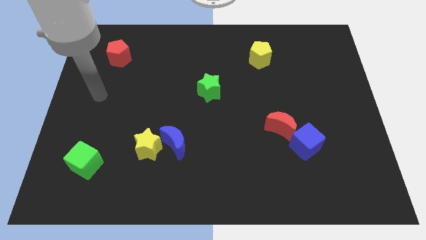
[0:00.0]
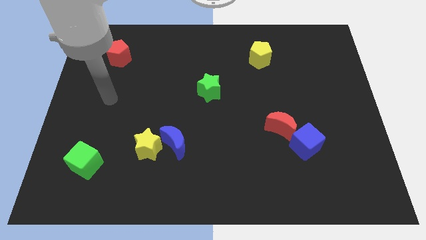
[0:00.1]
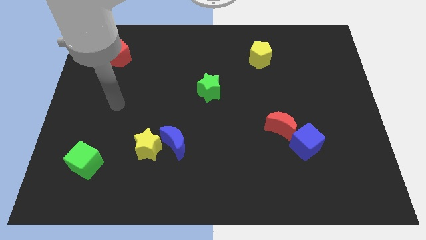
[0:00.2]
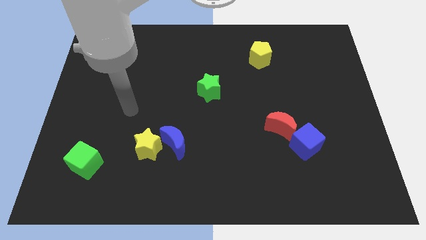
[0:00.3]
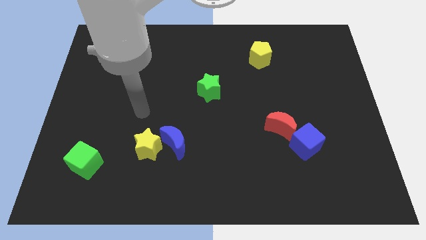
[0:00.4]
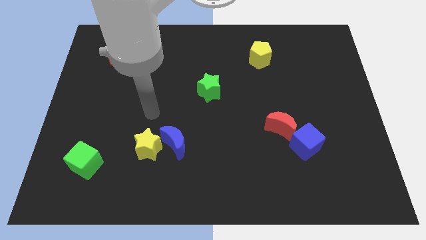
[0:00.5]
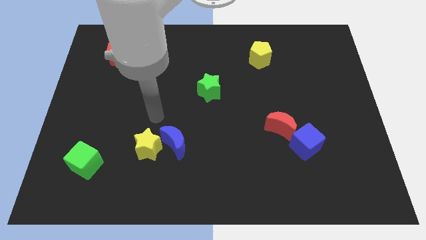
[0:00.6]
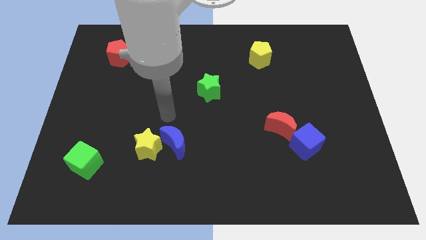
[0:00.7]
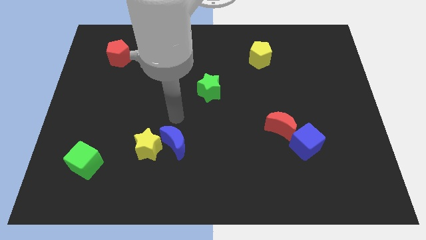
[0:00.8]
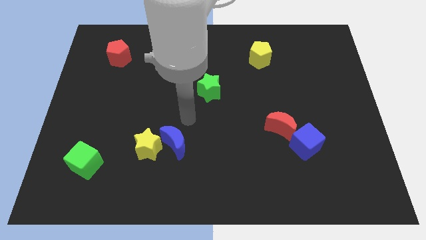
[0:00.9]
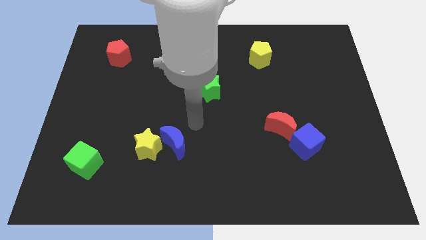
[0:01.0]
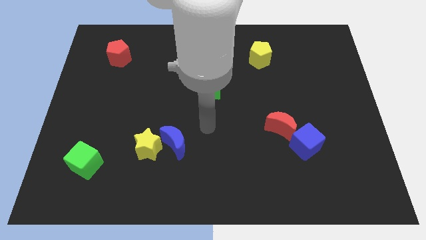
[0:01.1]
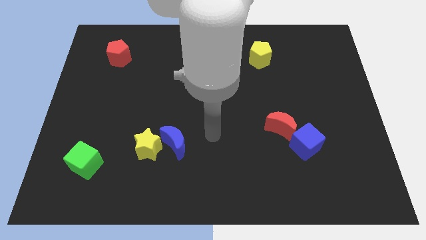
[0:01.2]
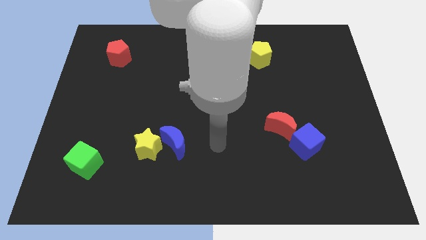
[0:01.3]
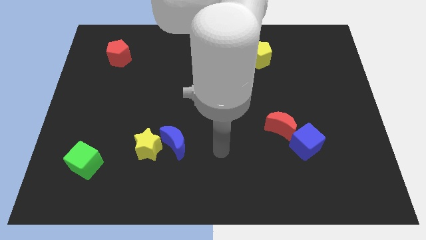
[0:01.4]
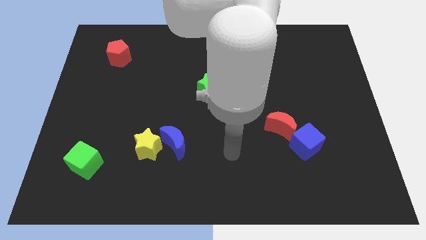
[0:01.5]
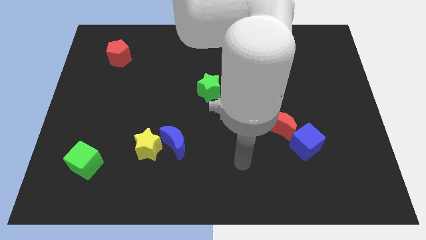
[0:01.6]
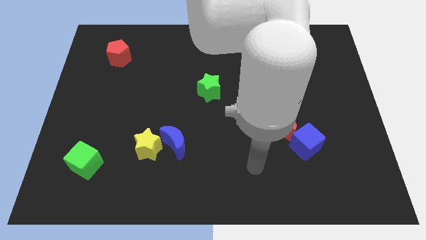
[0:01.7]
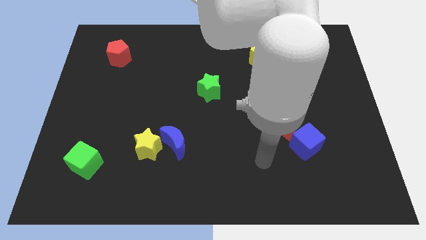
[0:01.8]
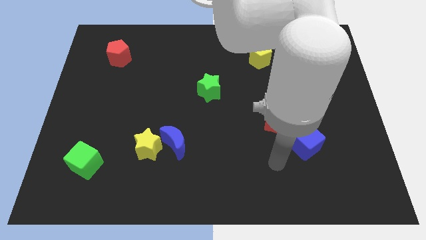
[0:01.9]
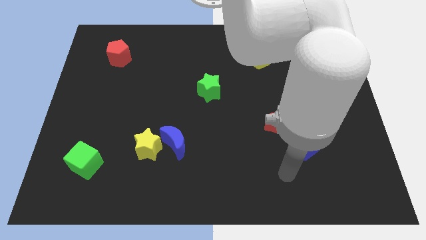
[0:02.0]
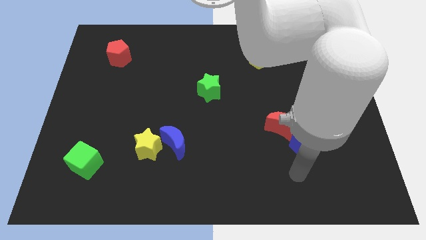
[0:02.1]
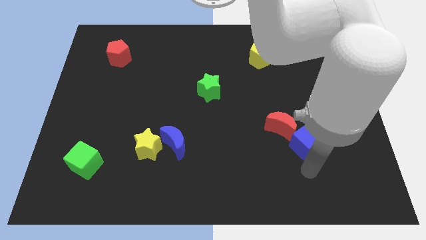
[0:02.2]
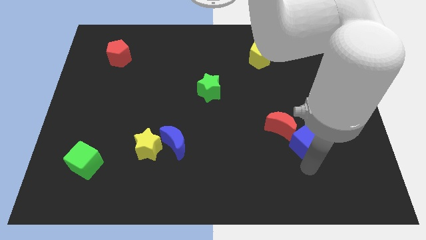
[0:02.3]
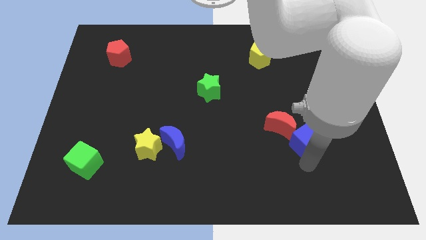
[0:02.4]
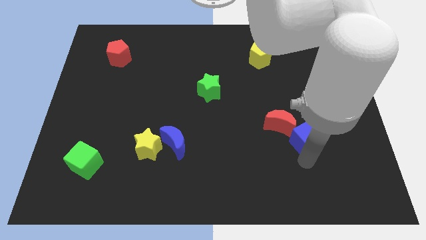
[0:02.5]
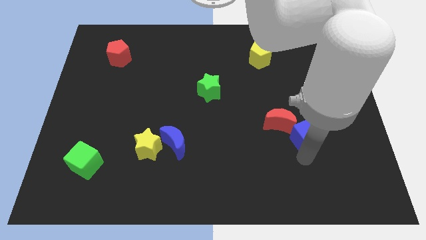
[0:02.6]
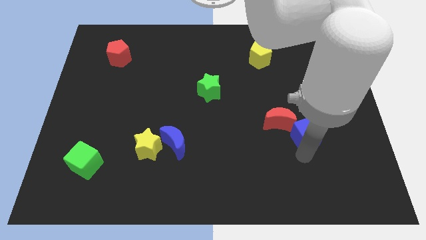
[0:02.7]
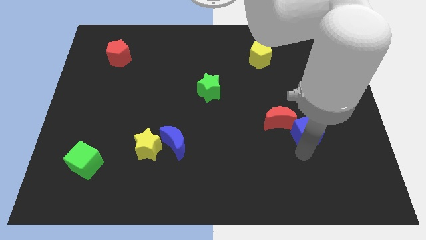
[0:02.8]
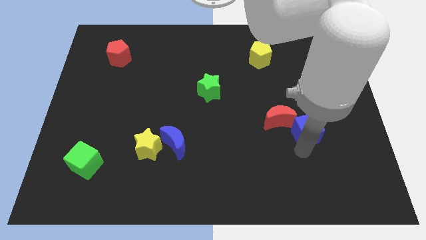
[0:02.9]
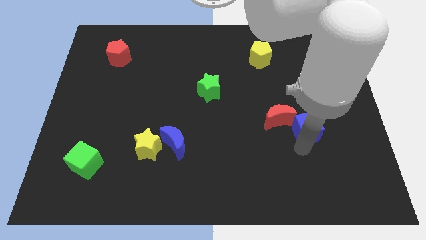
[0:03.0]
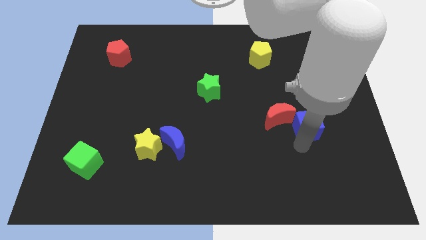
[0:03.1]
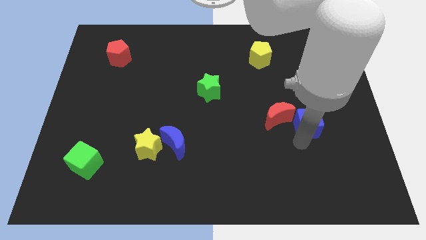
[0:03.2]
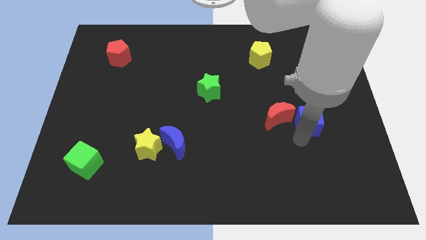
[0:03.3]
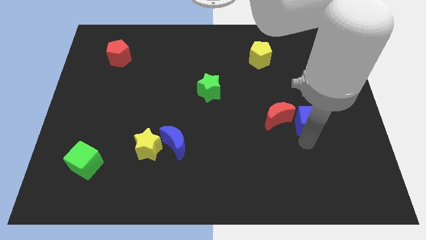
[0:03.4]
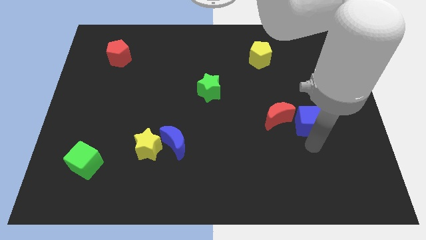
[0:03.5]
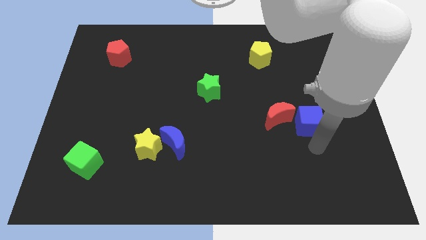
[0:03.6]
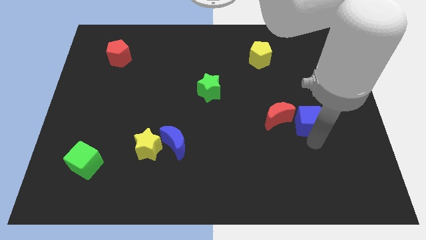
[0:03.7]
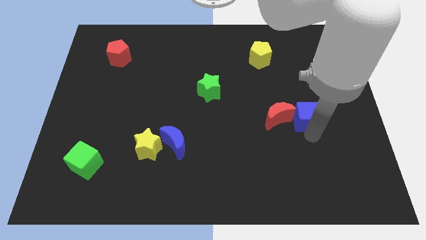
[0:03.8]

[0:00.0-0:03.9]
move the blue cube up somewhat

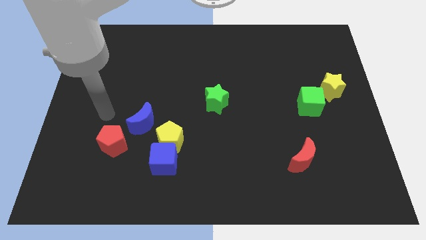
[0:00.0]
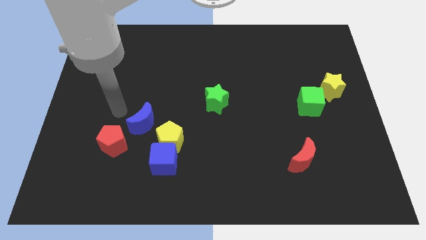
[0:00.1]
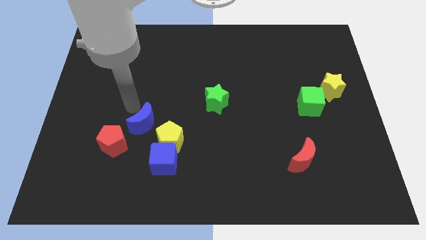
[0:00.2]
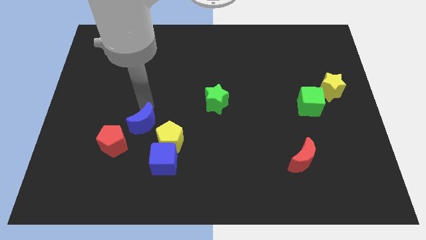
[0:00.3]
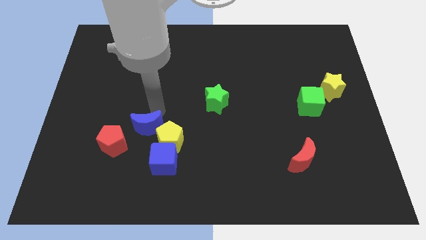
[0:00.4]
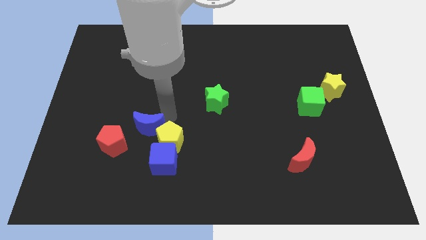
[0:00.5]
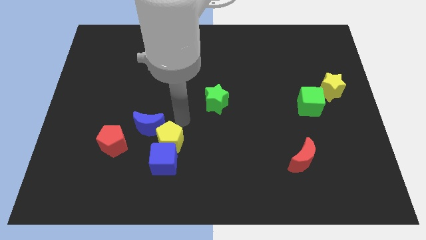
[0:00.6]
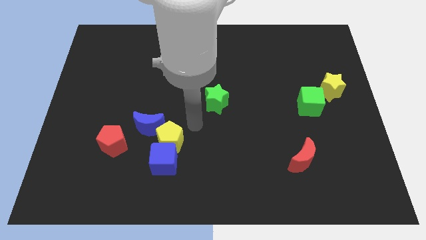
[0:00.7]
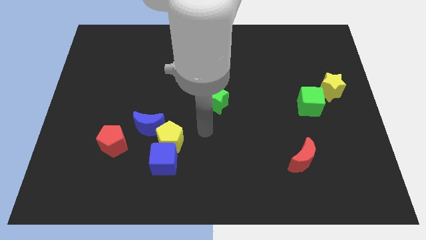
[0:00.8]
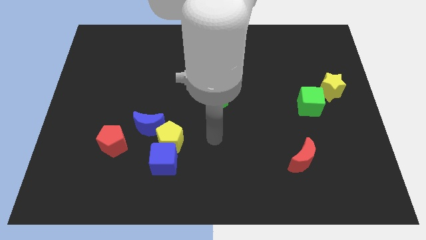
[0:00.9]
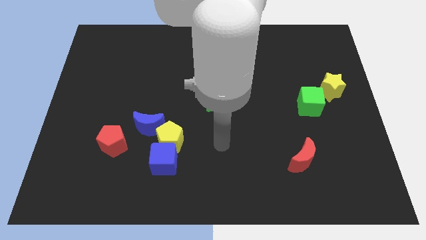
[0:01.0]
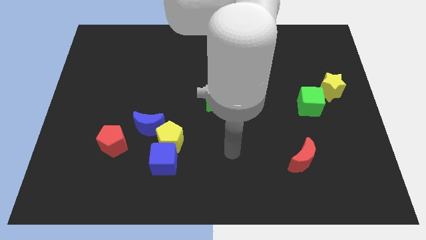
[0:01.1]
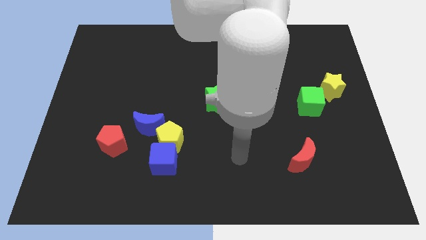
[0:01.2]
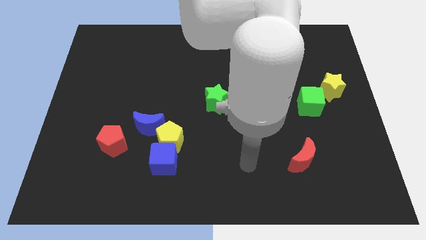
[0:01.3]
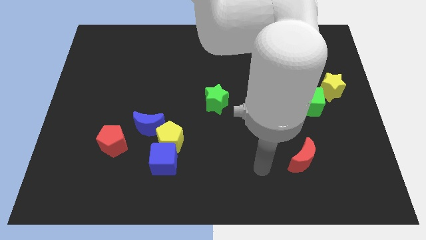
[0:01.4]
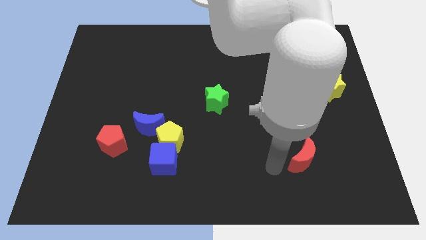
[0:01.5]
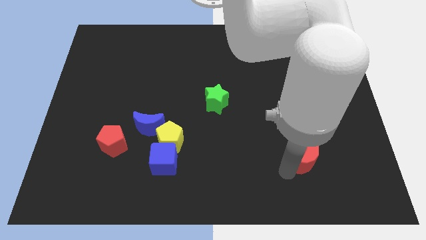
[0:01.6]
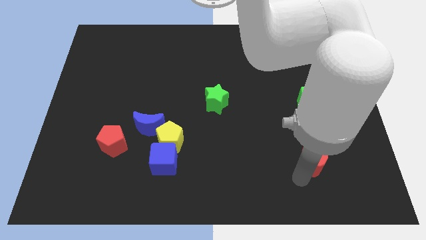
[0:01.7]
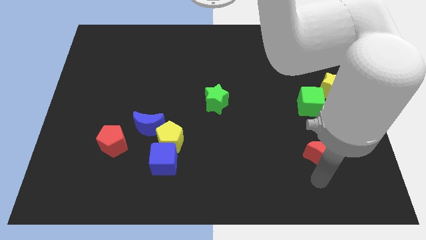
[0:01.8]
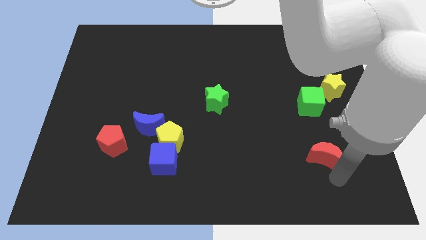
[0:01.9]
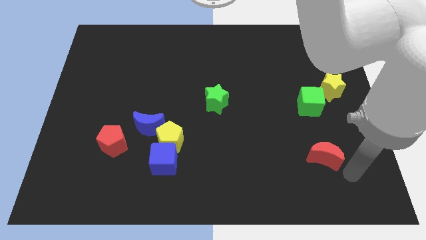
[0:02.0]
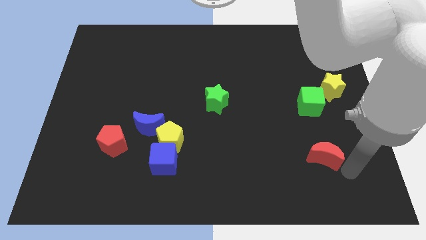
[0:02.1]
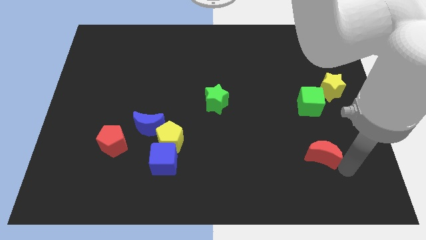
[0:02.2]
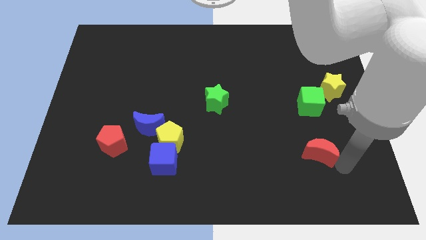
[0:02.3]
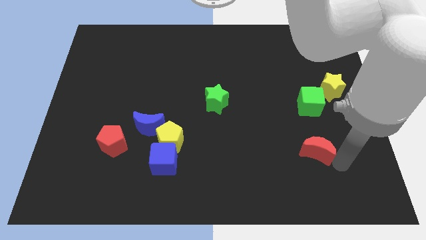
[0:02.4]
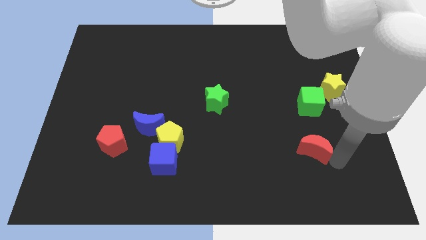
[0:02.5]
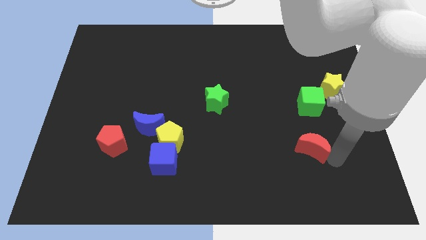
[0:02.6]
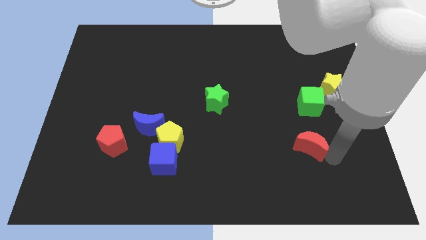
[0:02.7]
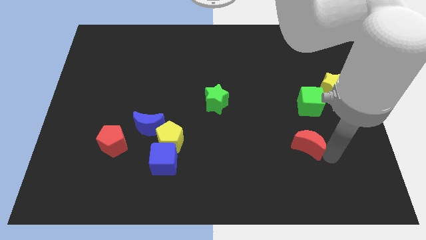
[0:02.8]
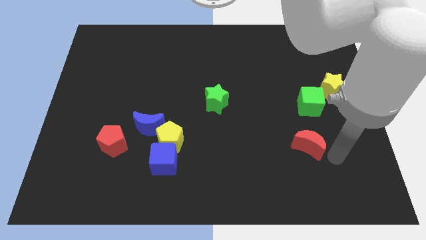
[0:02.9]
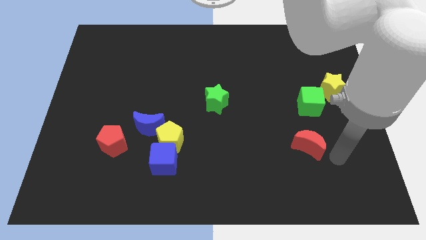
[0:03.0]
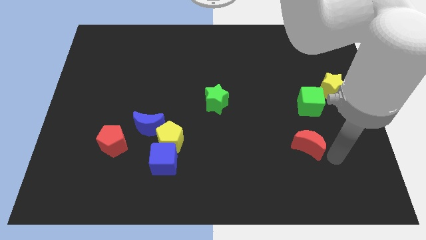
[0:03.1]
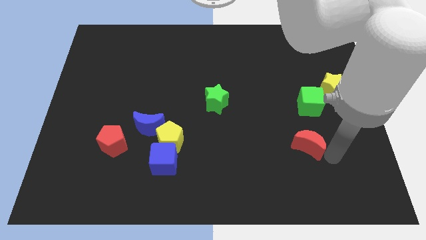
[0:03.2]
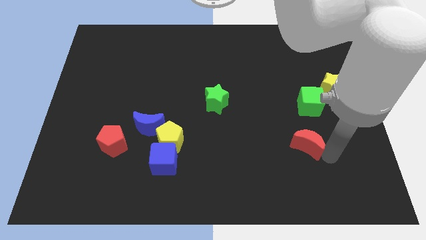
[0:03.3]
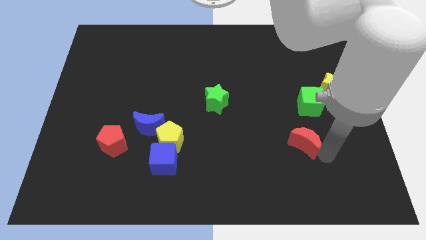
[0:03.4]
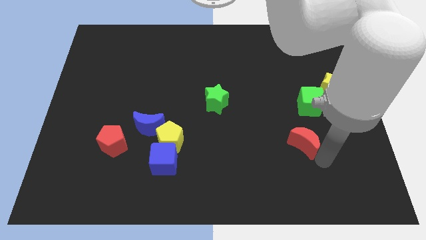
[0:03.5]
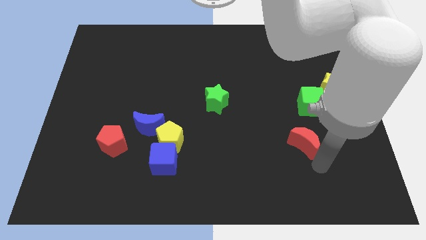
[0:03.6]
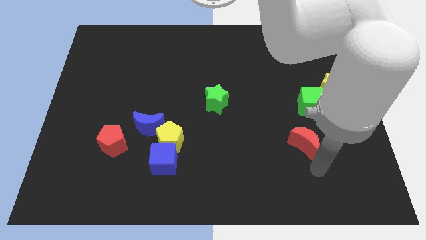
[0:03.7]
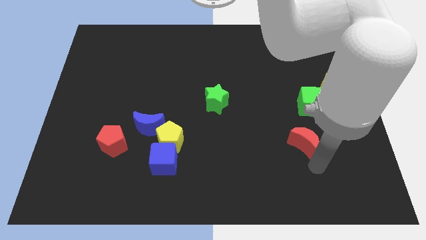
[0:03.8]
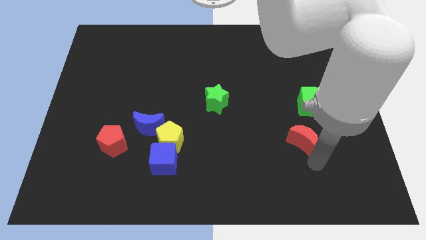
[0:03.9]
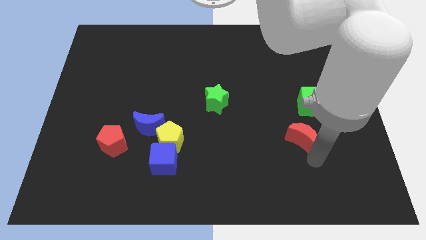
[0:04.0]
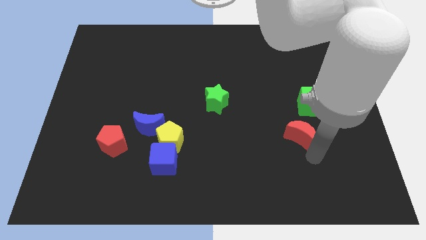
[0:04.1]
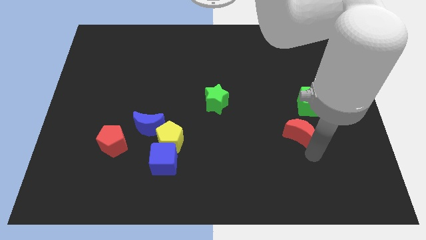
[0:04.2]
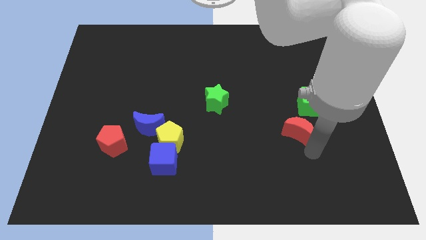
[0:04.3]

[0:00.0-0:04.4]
slightly move the red moon upwards
